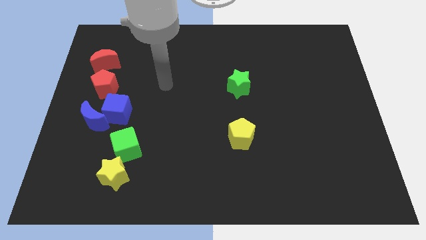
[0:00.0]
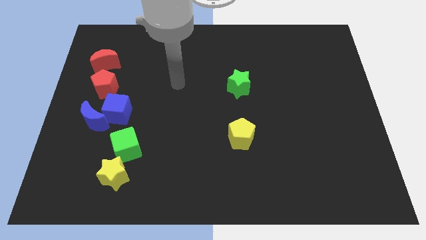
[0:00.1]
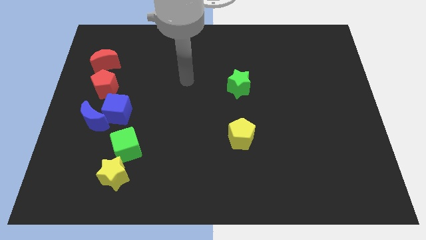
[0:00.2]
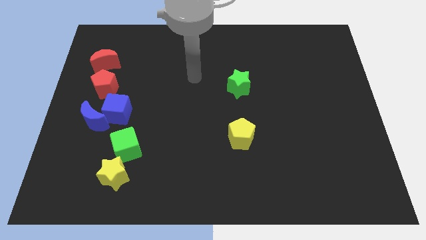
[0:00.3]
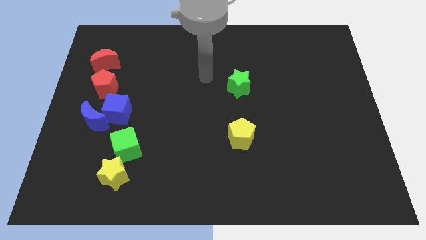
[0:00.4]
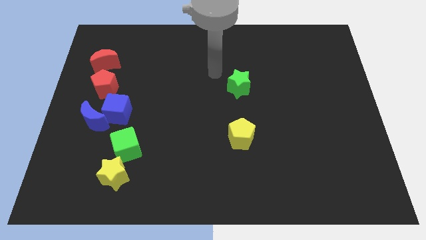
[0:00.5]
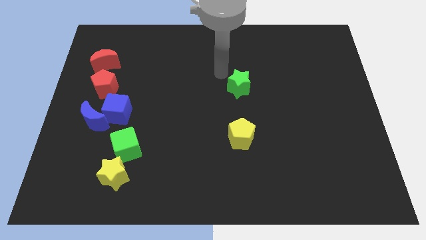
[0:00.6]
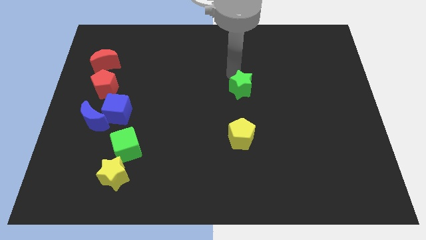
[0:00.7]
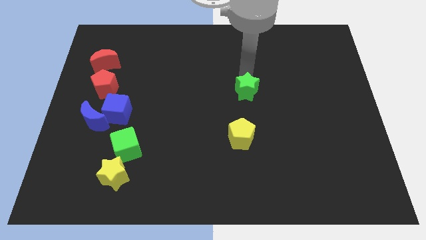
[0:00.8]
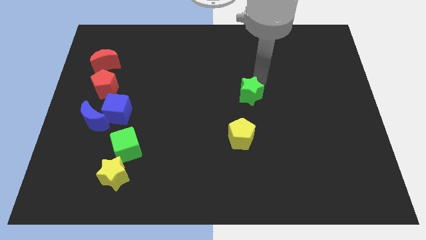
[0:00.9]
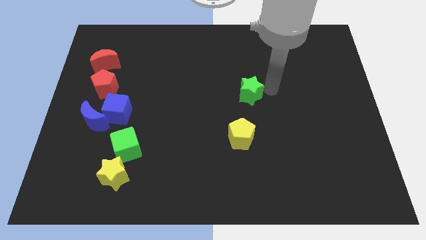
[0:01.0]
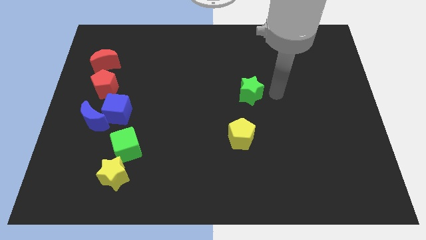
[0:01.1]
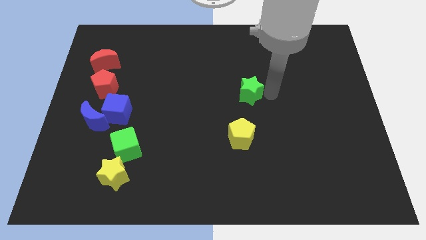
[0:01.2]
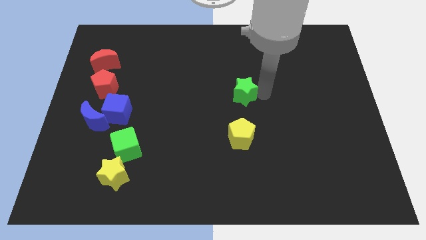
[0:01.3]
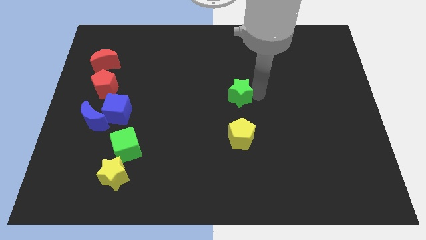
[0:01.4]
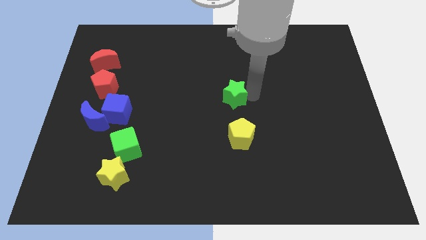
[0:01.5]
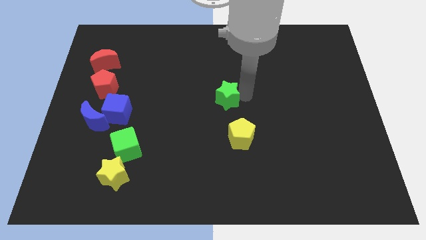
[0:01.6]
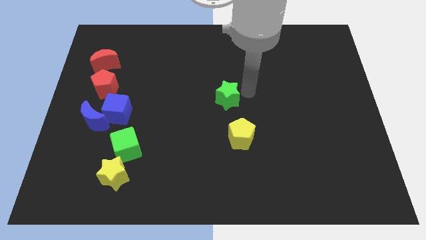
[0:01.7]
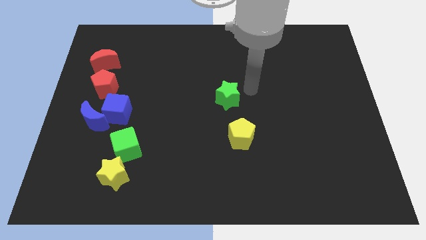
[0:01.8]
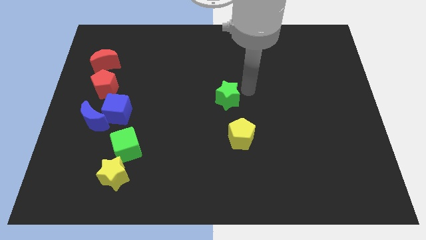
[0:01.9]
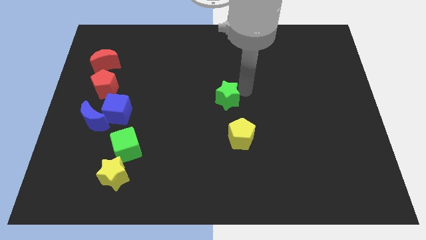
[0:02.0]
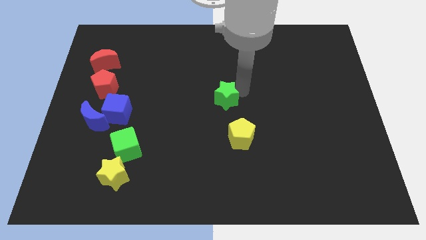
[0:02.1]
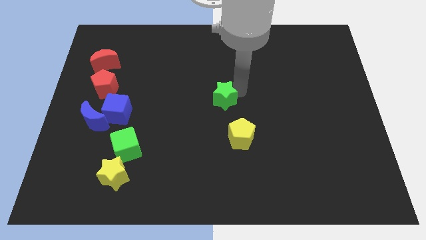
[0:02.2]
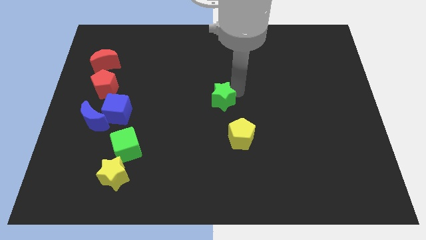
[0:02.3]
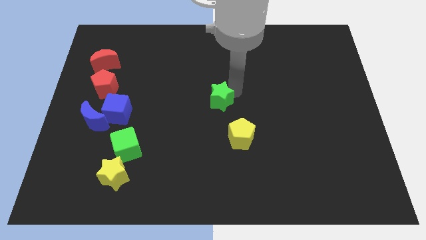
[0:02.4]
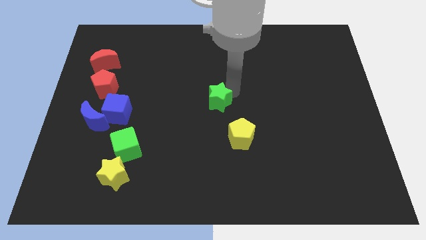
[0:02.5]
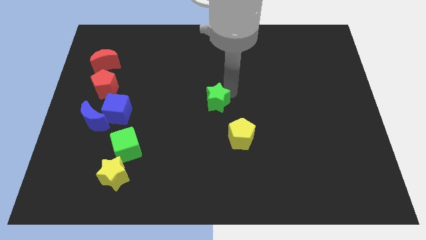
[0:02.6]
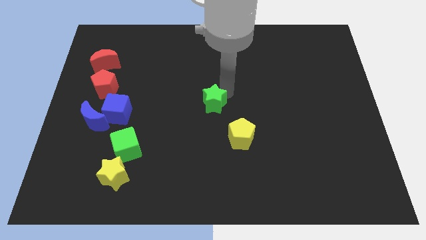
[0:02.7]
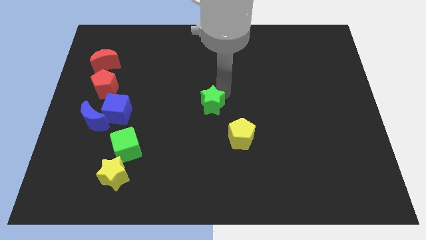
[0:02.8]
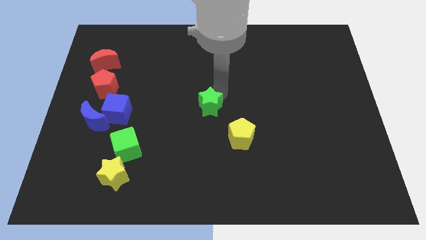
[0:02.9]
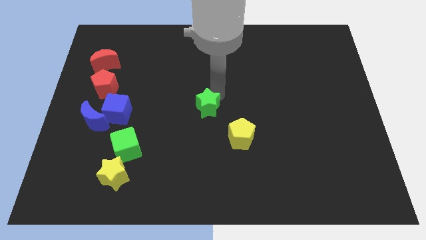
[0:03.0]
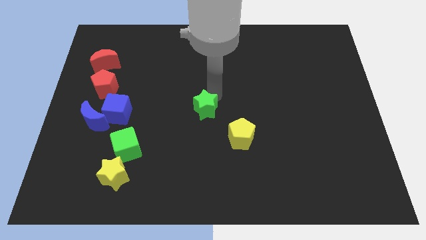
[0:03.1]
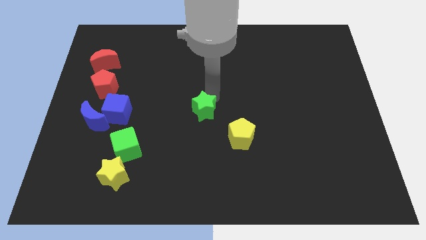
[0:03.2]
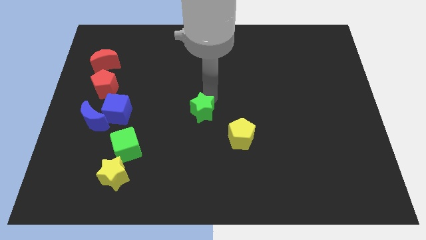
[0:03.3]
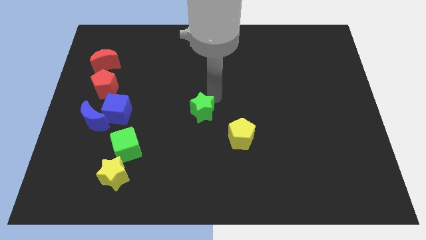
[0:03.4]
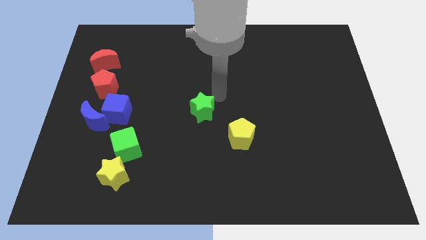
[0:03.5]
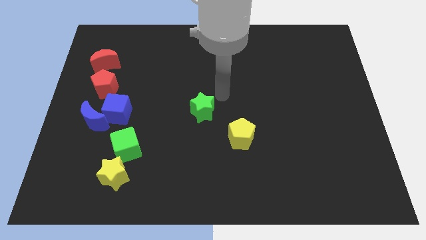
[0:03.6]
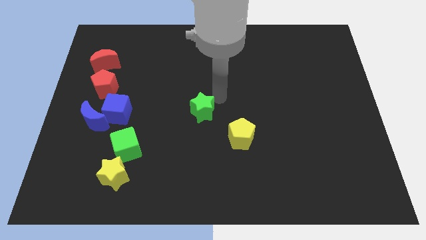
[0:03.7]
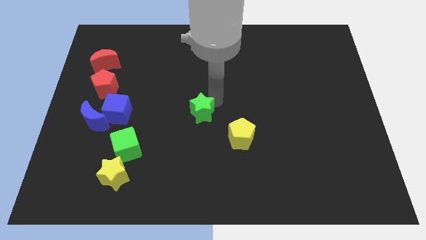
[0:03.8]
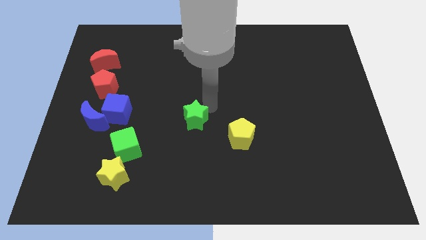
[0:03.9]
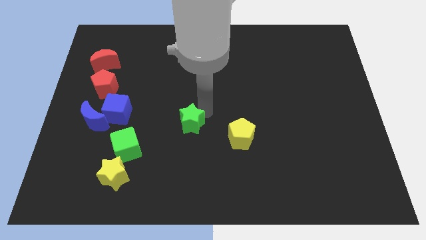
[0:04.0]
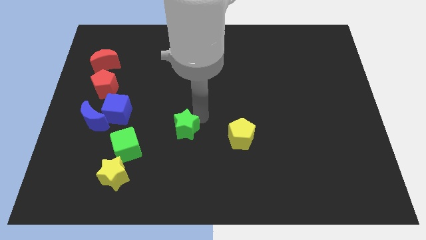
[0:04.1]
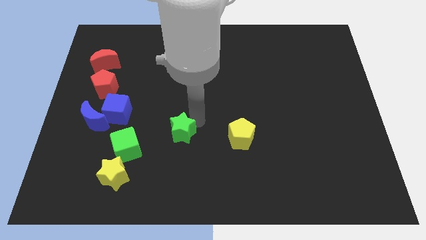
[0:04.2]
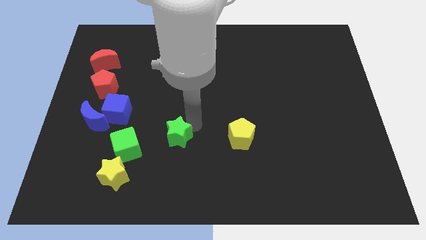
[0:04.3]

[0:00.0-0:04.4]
slide the green star down and to the left diagonally

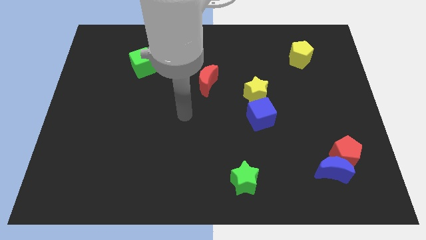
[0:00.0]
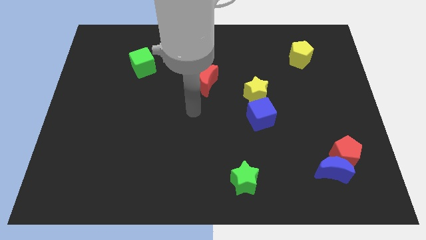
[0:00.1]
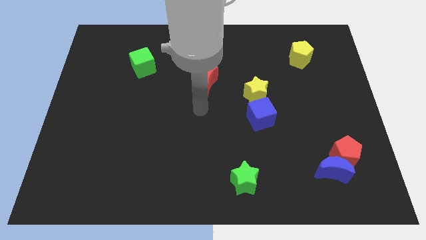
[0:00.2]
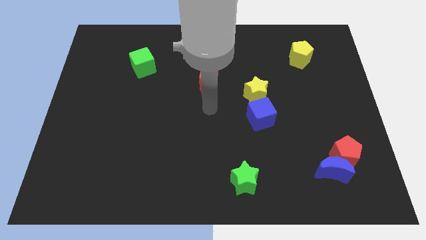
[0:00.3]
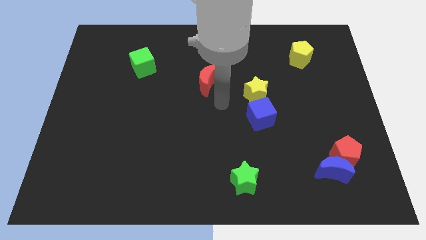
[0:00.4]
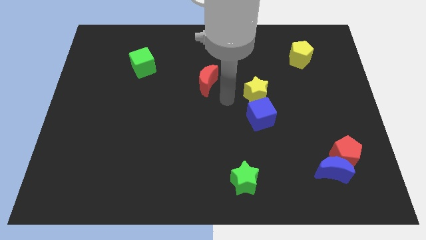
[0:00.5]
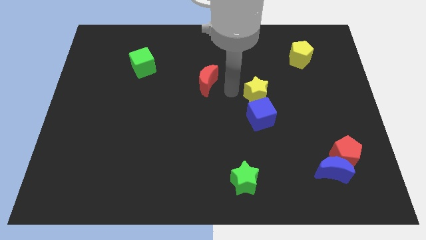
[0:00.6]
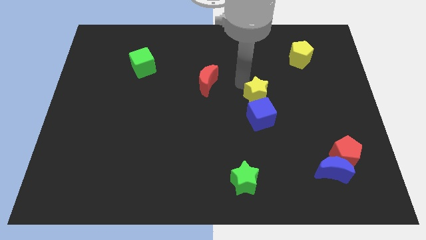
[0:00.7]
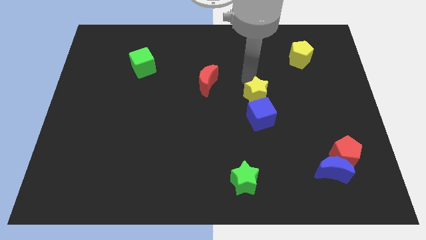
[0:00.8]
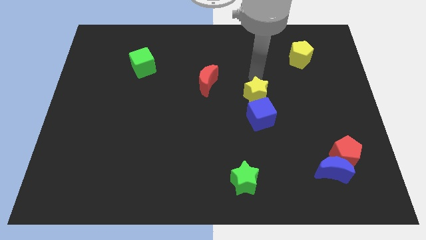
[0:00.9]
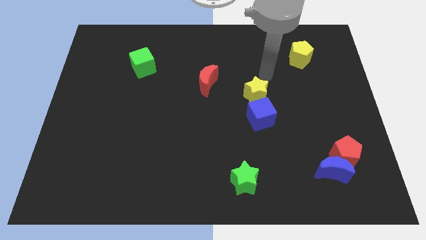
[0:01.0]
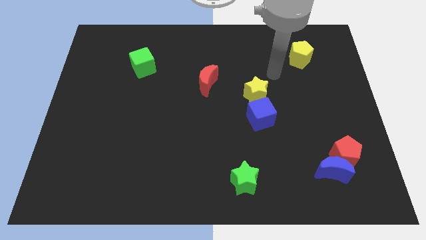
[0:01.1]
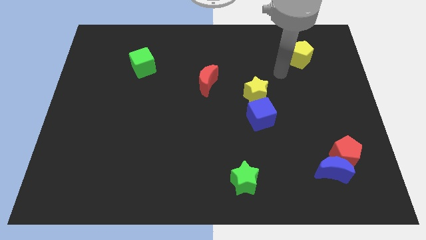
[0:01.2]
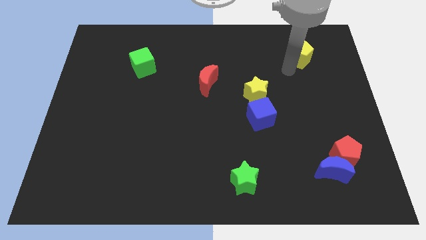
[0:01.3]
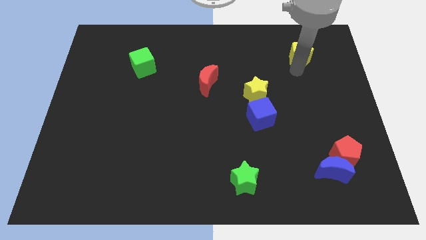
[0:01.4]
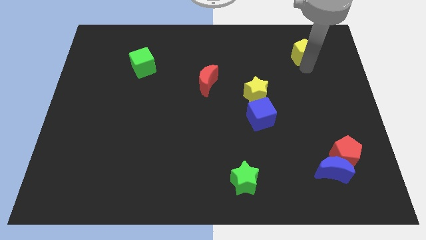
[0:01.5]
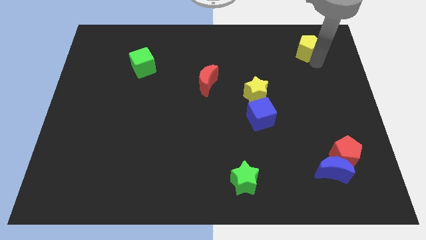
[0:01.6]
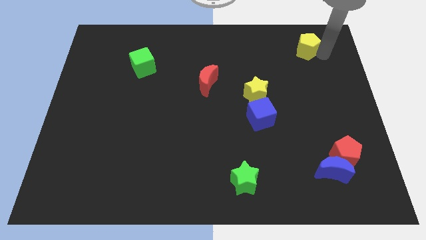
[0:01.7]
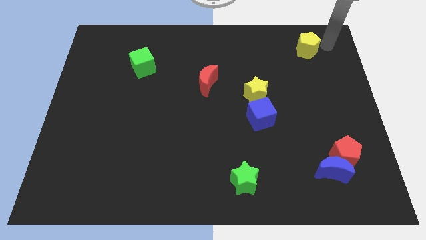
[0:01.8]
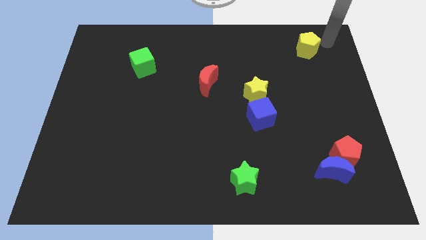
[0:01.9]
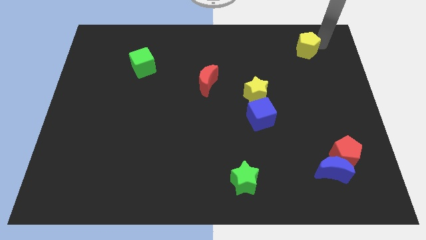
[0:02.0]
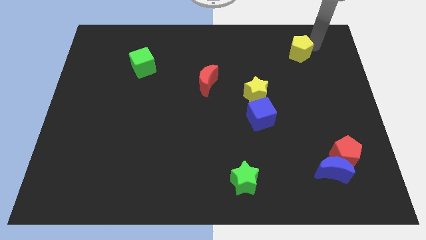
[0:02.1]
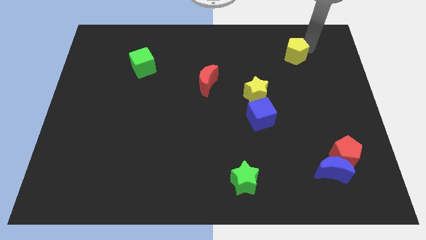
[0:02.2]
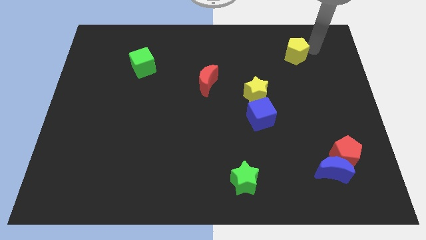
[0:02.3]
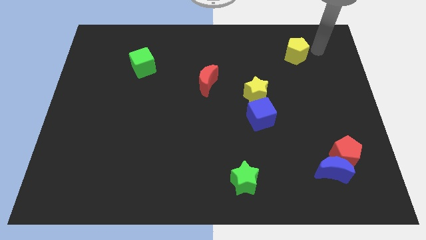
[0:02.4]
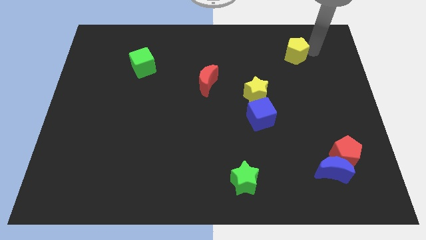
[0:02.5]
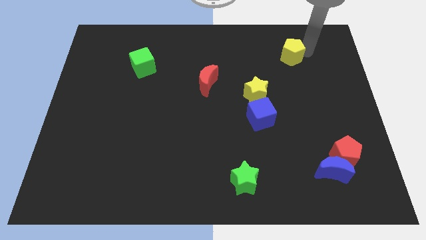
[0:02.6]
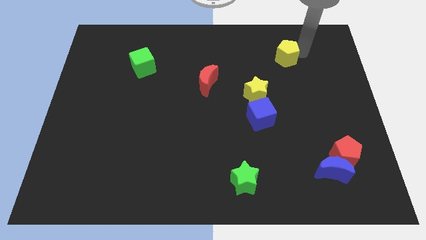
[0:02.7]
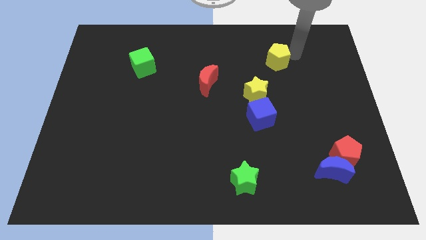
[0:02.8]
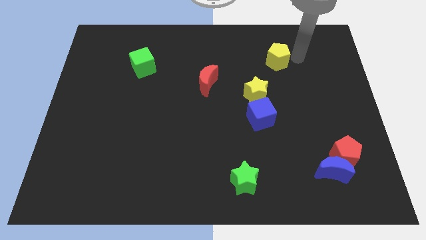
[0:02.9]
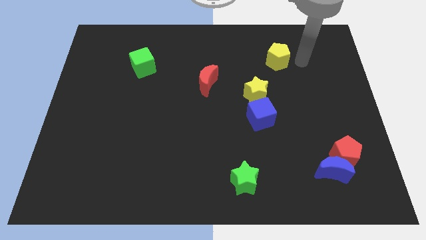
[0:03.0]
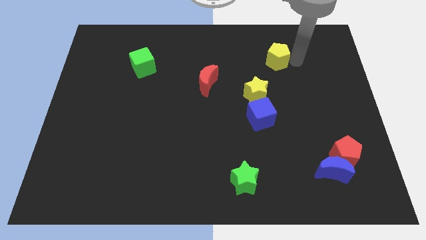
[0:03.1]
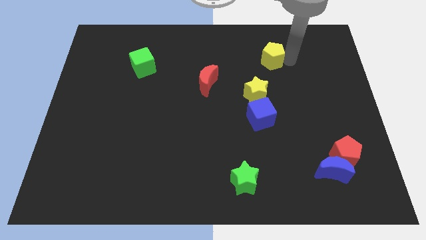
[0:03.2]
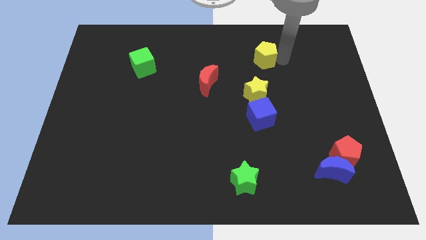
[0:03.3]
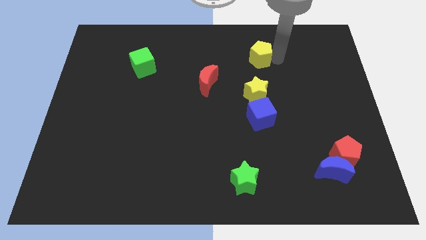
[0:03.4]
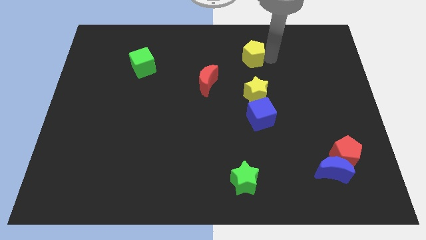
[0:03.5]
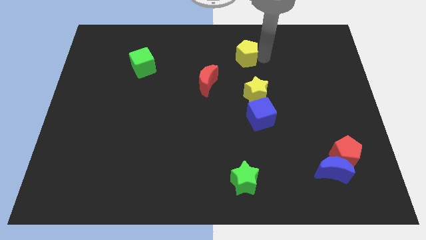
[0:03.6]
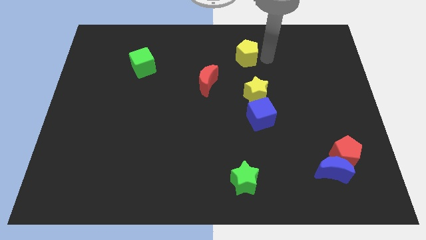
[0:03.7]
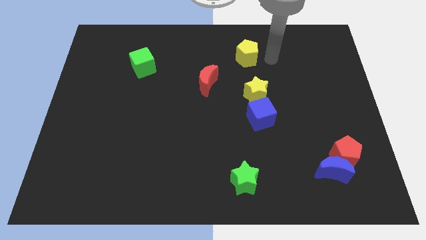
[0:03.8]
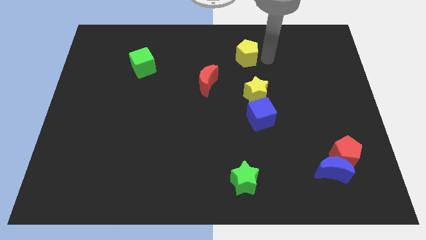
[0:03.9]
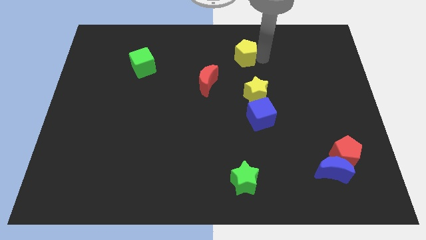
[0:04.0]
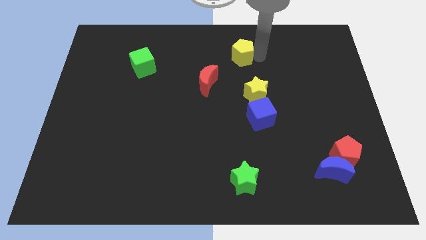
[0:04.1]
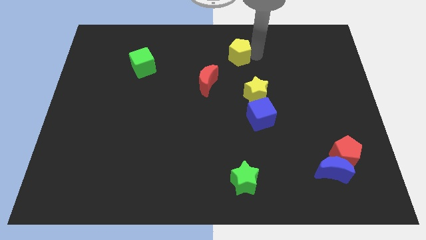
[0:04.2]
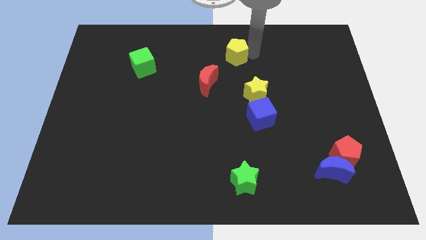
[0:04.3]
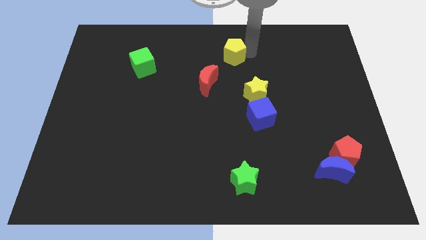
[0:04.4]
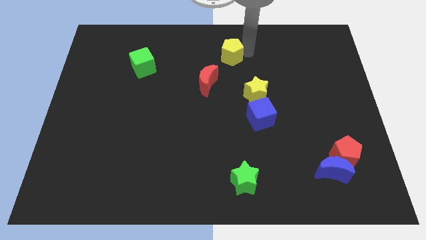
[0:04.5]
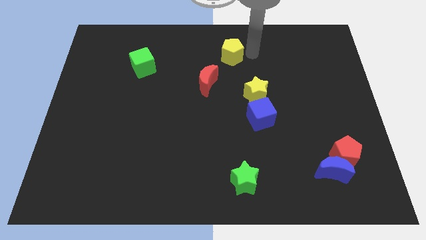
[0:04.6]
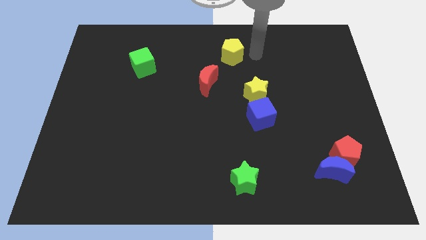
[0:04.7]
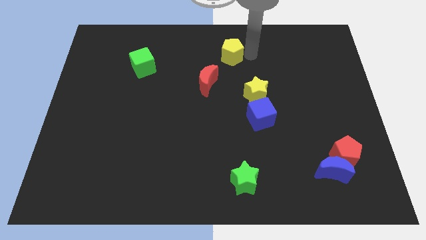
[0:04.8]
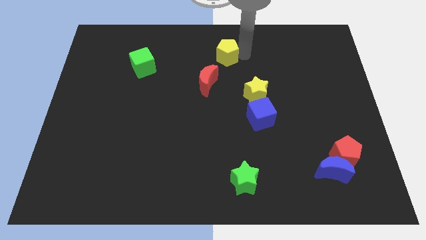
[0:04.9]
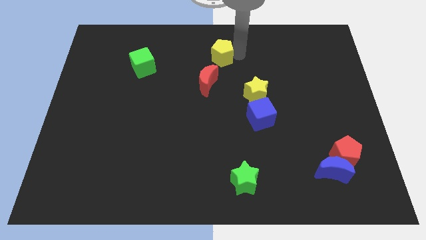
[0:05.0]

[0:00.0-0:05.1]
move the yellow pentagon to the left
